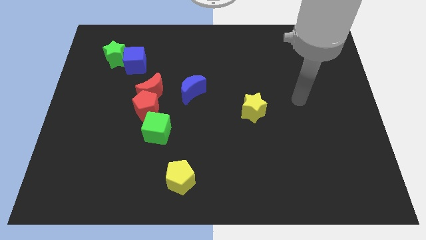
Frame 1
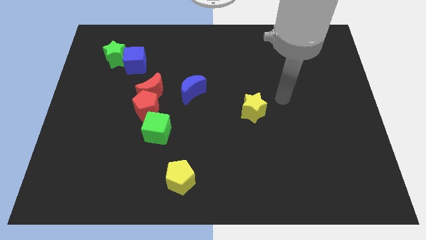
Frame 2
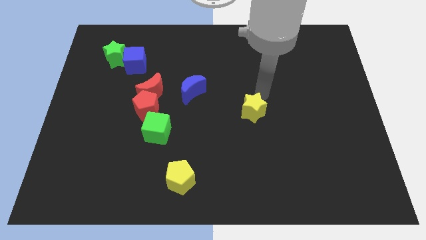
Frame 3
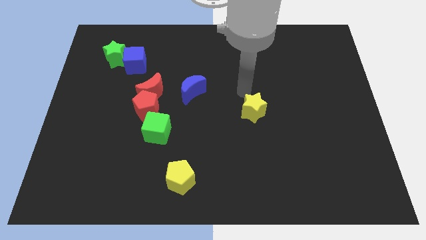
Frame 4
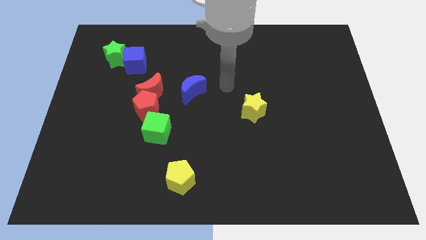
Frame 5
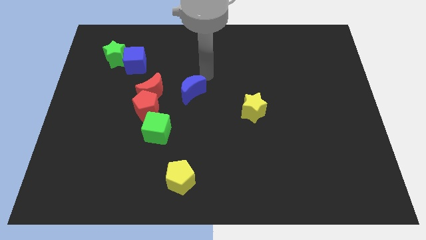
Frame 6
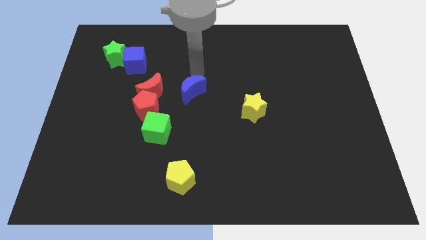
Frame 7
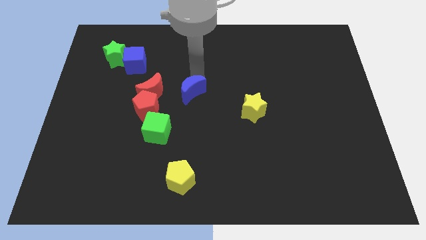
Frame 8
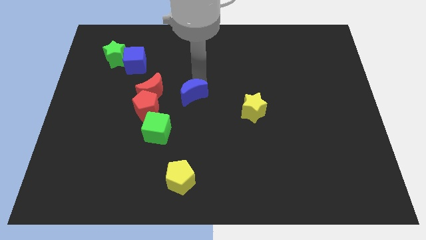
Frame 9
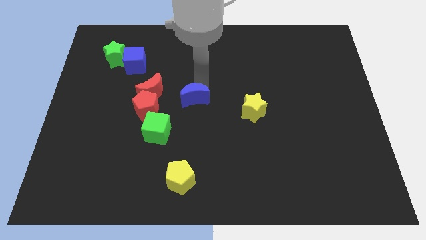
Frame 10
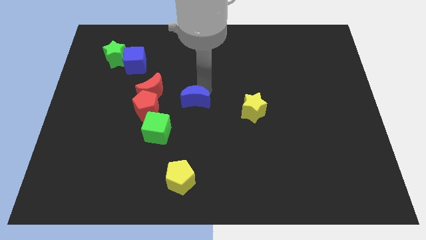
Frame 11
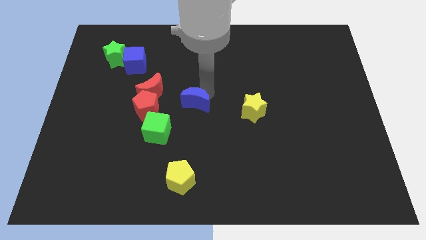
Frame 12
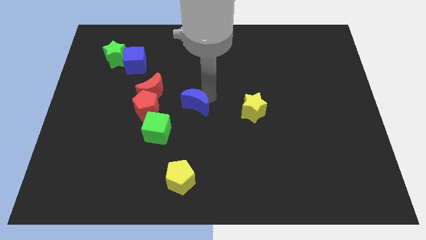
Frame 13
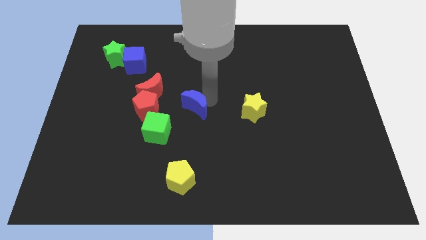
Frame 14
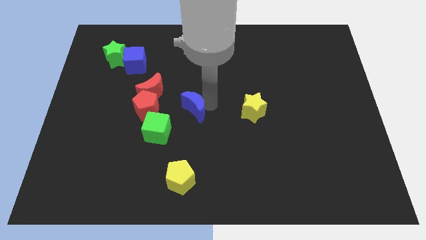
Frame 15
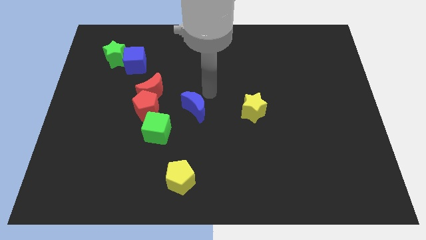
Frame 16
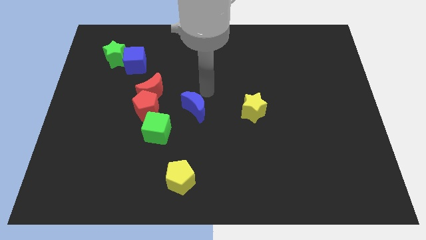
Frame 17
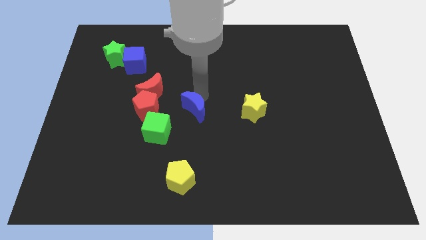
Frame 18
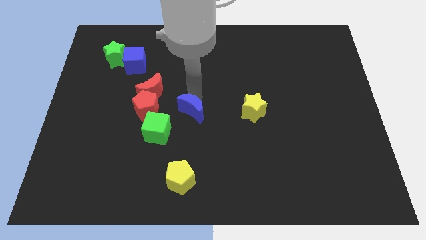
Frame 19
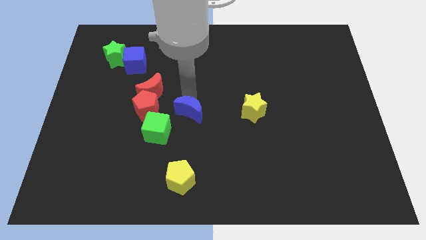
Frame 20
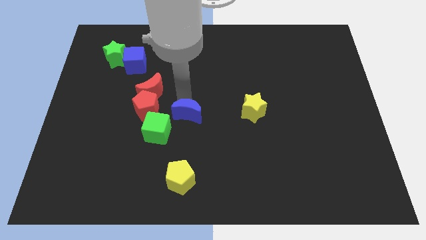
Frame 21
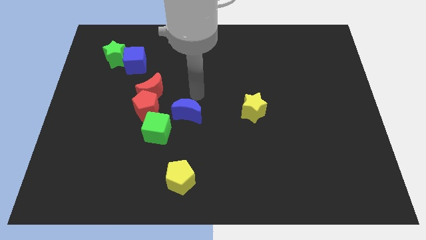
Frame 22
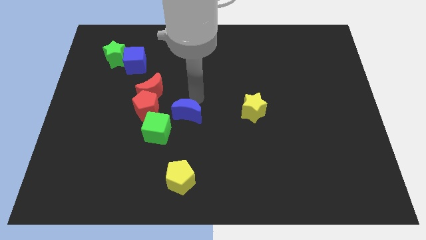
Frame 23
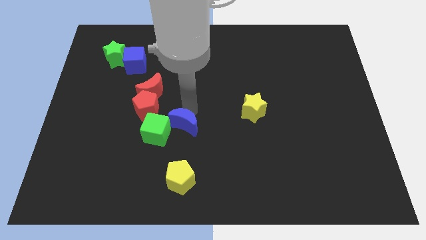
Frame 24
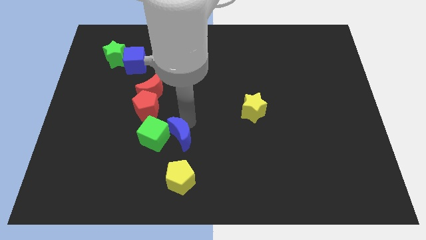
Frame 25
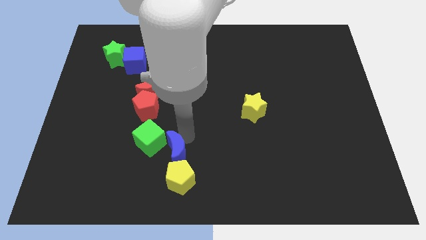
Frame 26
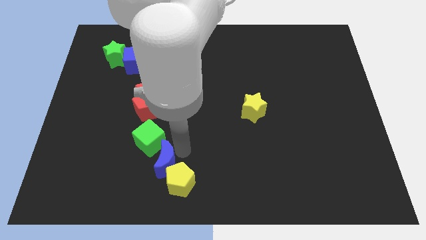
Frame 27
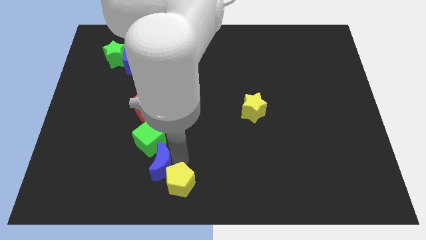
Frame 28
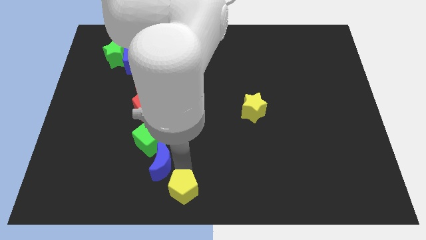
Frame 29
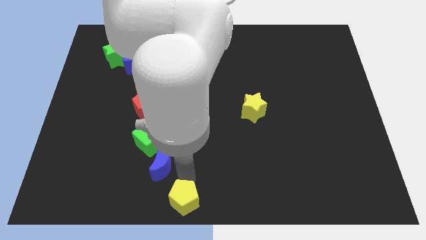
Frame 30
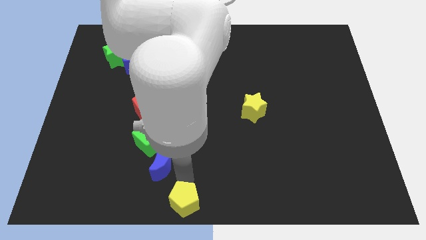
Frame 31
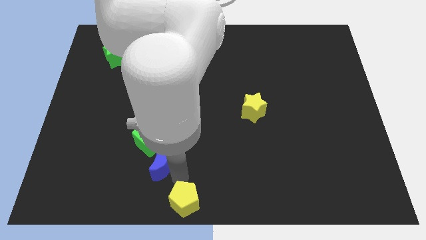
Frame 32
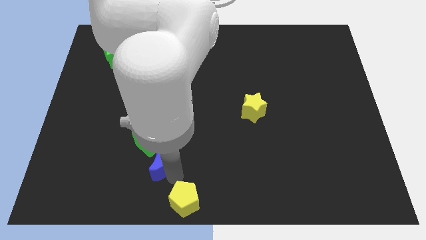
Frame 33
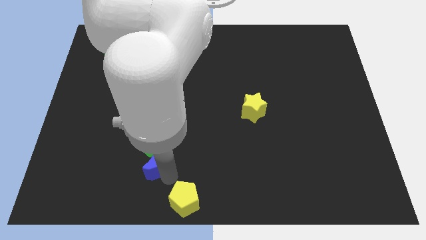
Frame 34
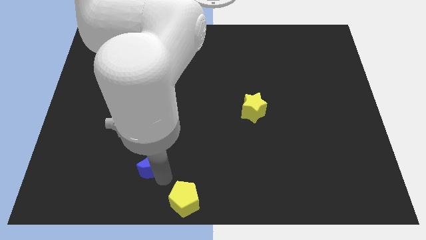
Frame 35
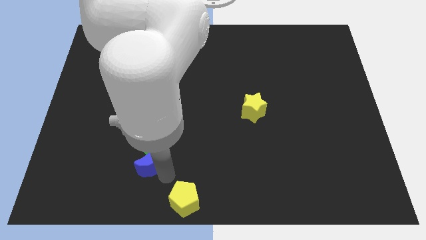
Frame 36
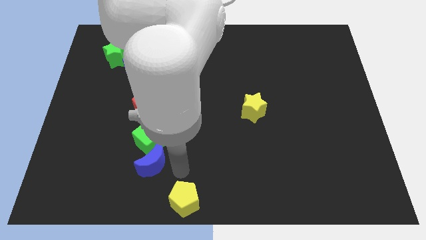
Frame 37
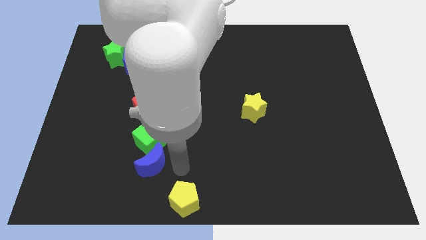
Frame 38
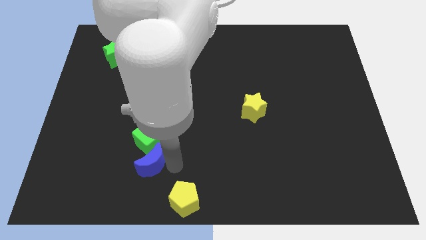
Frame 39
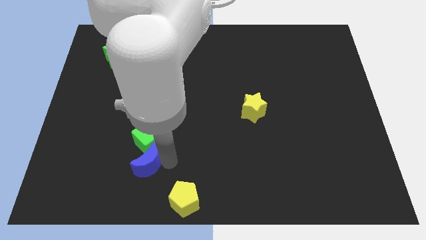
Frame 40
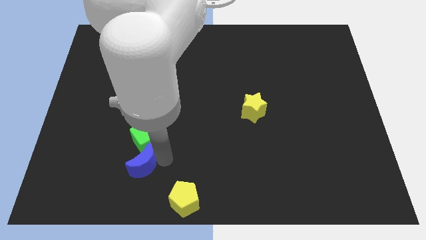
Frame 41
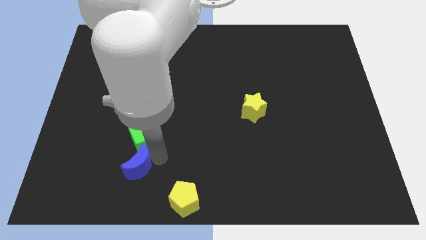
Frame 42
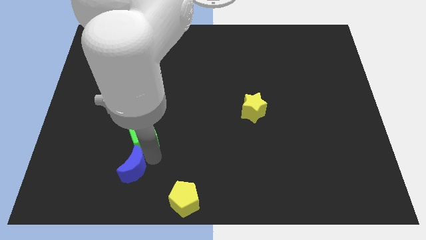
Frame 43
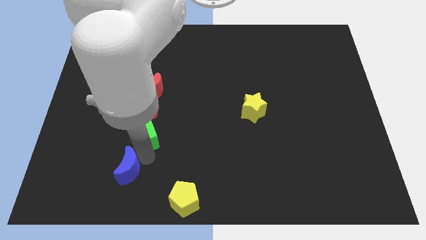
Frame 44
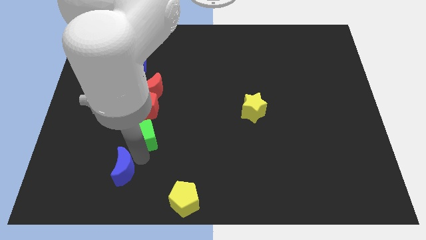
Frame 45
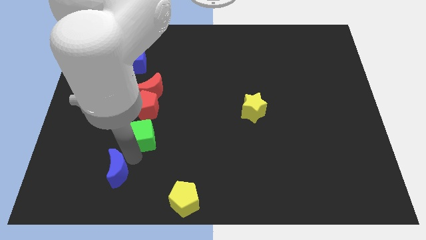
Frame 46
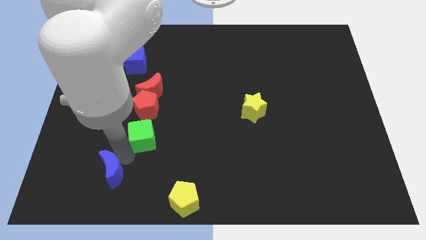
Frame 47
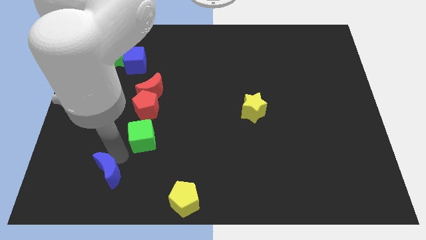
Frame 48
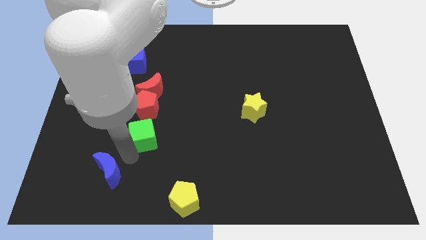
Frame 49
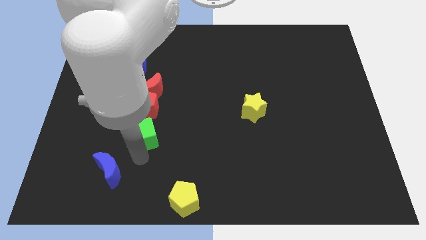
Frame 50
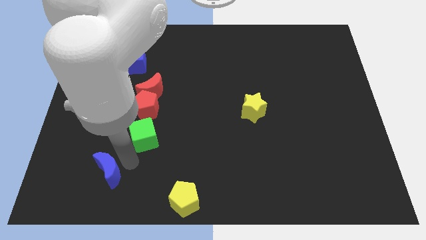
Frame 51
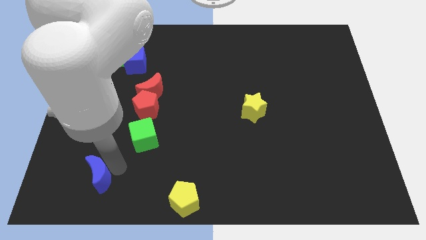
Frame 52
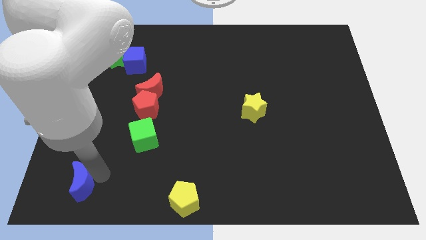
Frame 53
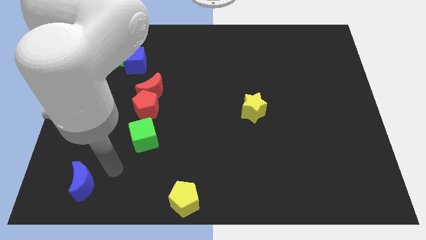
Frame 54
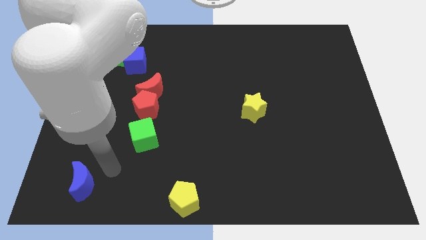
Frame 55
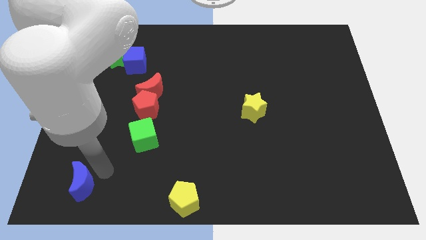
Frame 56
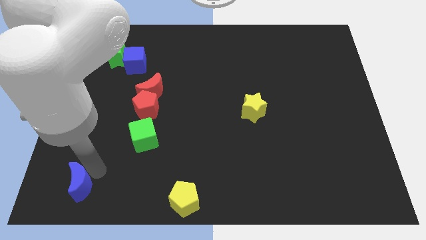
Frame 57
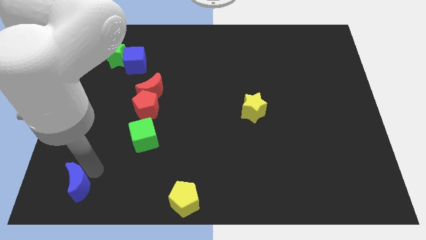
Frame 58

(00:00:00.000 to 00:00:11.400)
move the blue moon to the bottom left

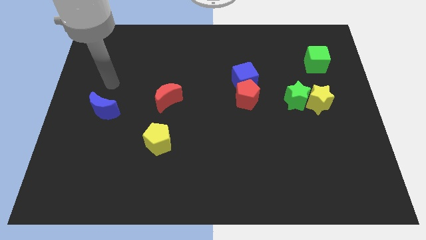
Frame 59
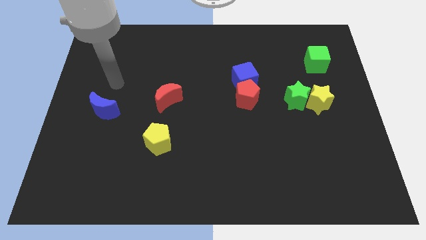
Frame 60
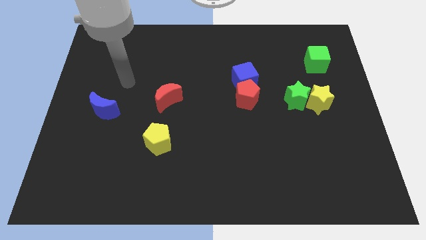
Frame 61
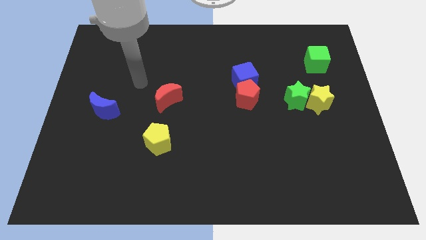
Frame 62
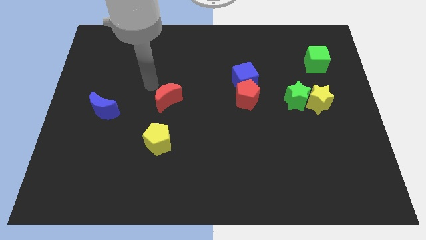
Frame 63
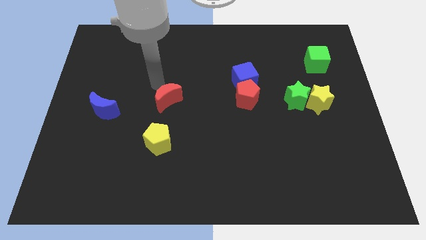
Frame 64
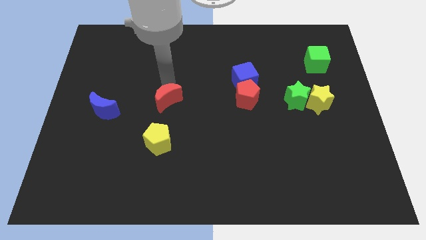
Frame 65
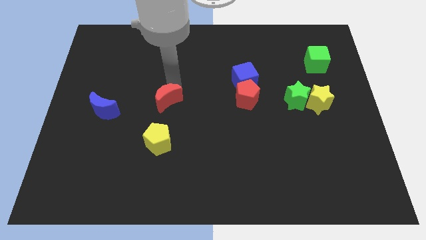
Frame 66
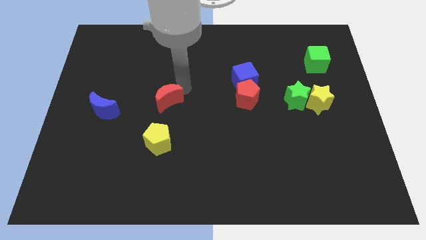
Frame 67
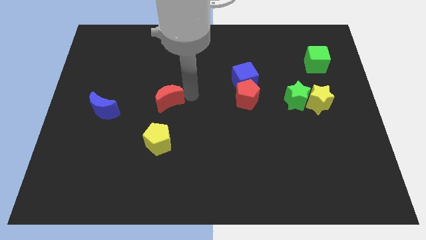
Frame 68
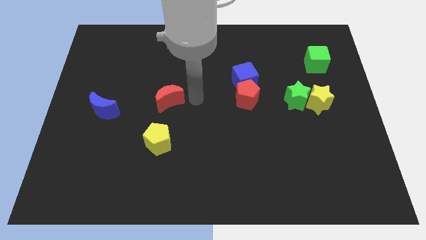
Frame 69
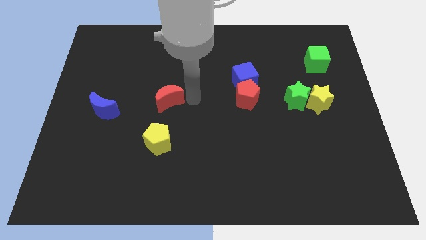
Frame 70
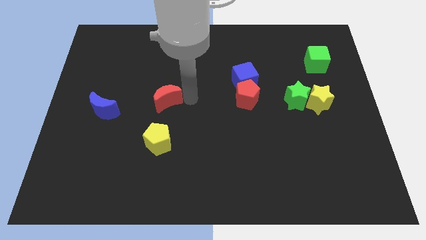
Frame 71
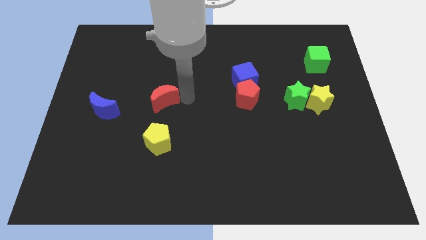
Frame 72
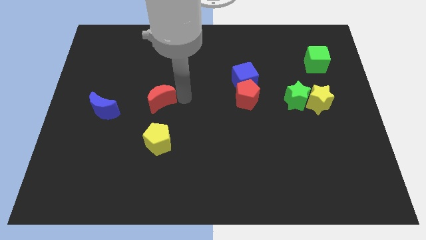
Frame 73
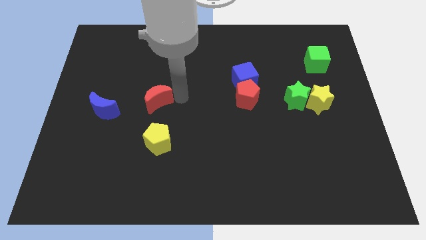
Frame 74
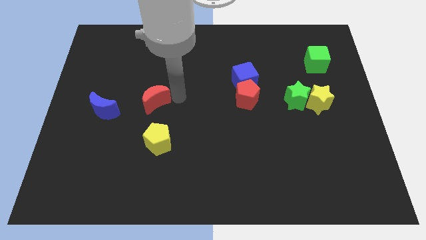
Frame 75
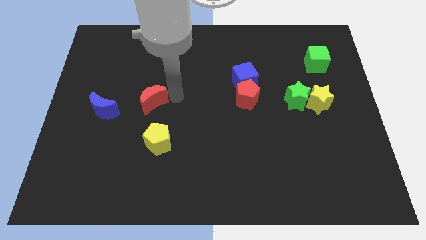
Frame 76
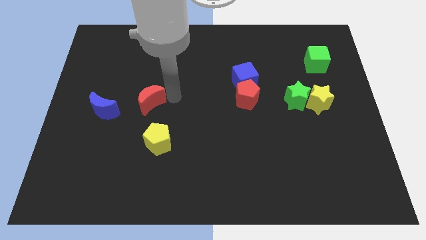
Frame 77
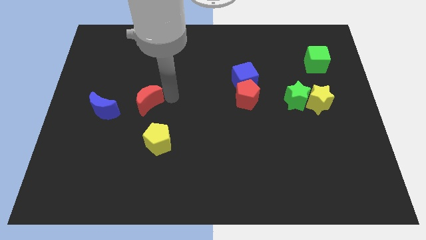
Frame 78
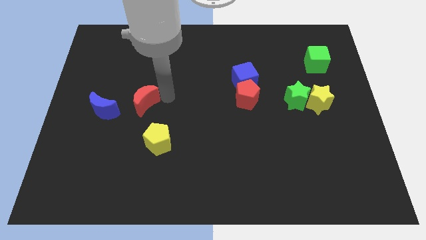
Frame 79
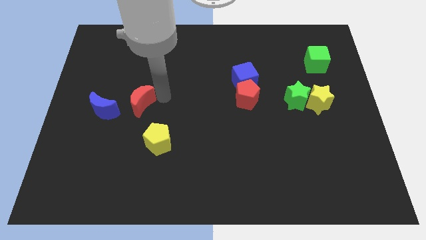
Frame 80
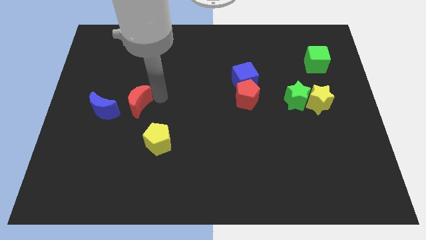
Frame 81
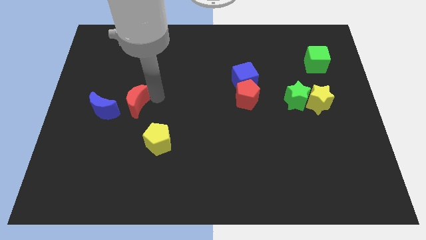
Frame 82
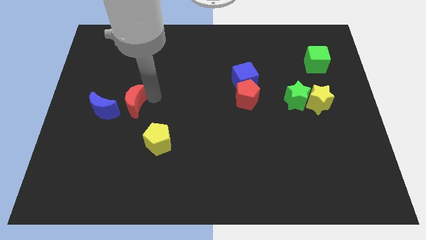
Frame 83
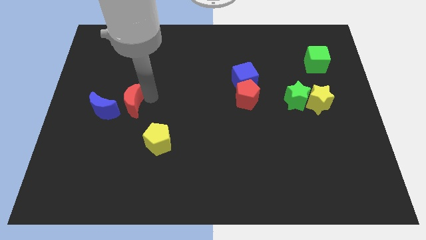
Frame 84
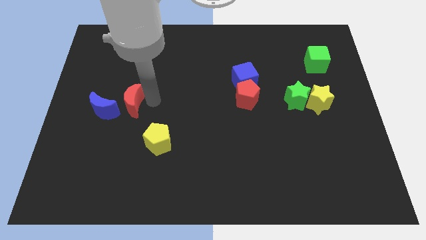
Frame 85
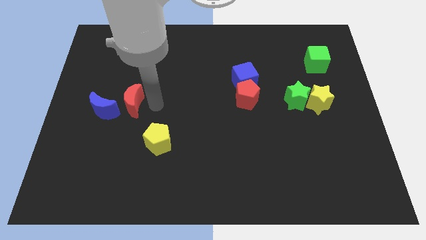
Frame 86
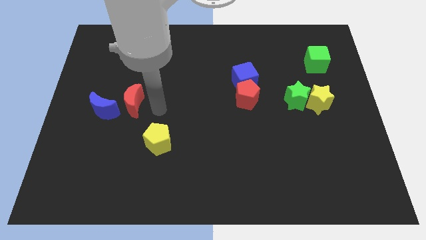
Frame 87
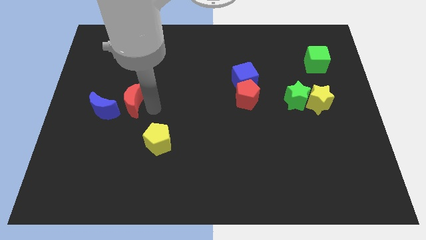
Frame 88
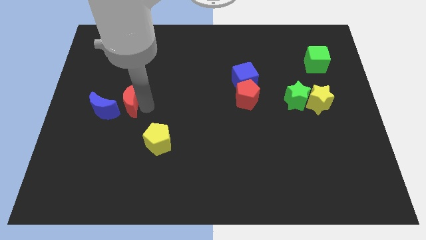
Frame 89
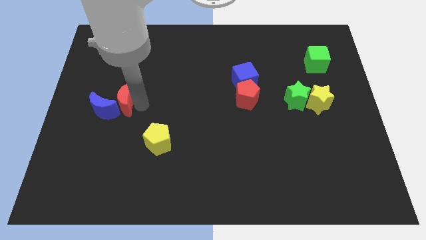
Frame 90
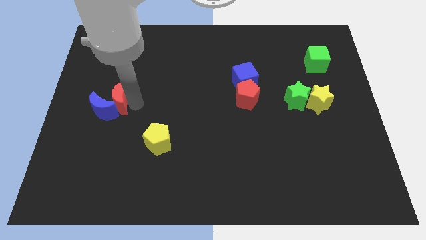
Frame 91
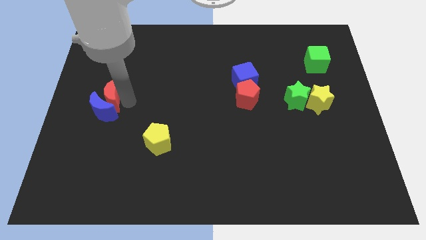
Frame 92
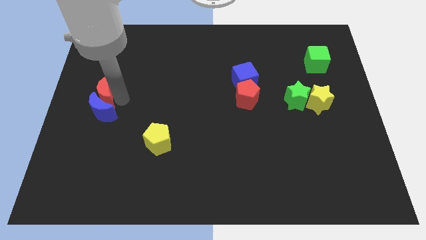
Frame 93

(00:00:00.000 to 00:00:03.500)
move the red moon to the left side of the board
